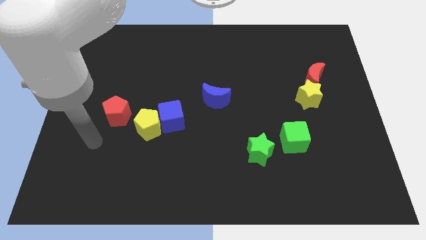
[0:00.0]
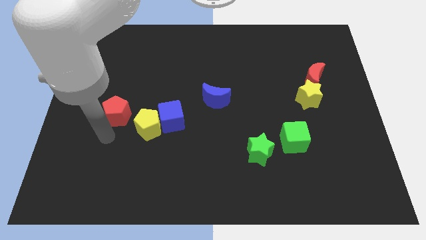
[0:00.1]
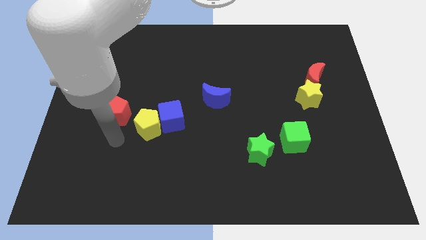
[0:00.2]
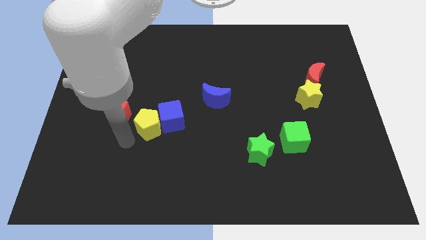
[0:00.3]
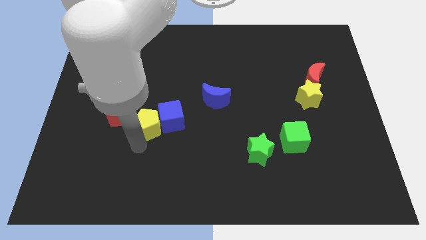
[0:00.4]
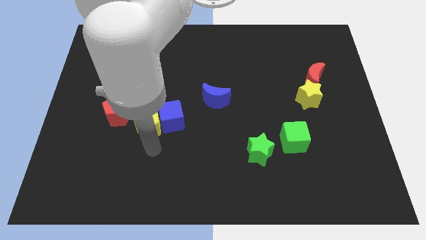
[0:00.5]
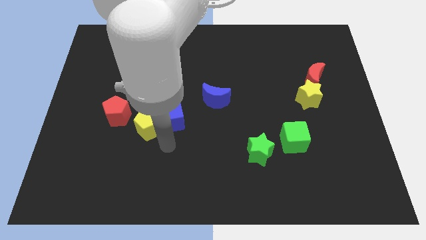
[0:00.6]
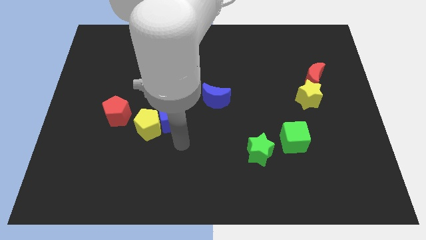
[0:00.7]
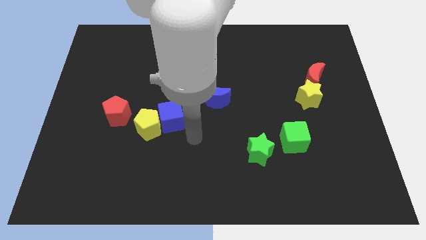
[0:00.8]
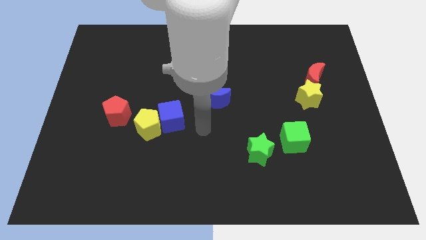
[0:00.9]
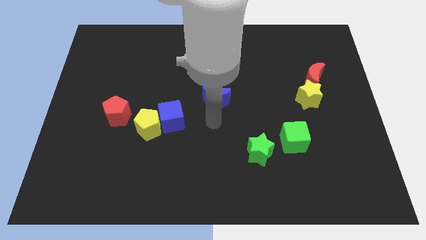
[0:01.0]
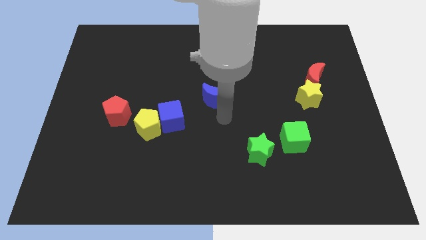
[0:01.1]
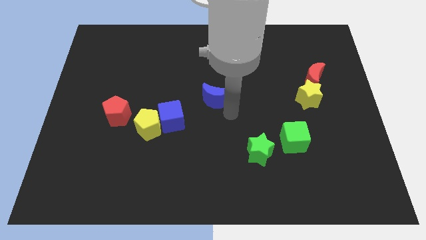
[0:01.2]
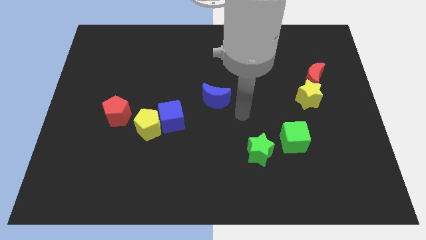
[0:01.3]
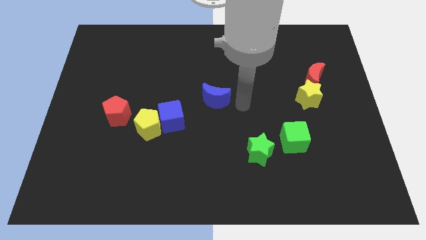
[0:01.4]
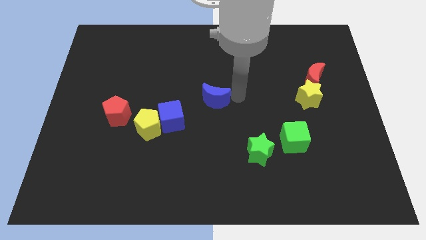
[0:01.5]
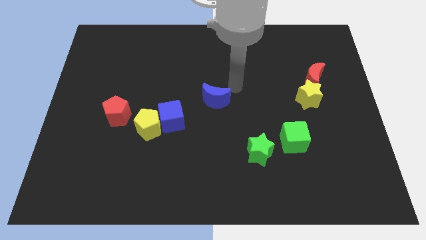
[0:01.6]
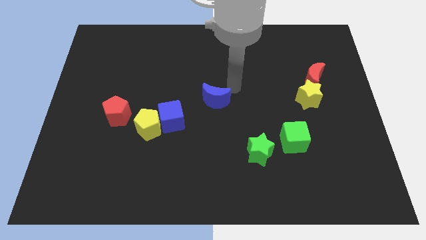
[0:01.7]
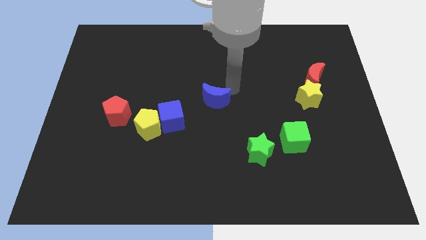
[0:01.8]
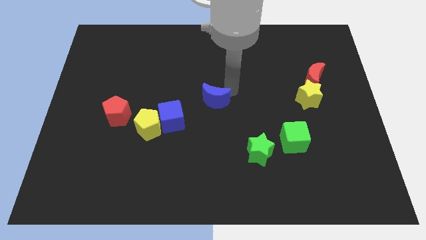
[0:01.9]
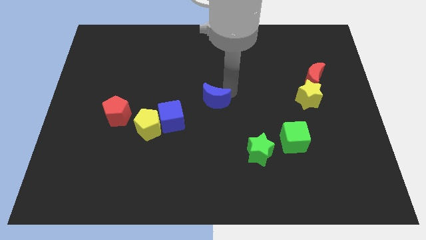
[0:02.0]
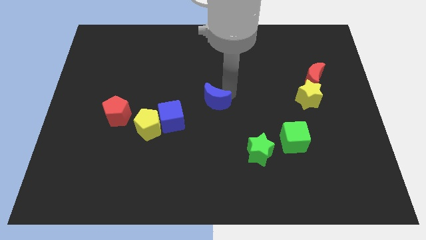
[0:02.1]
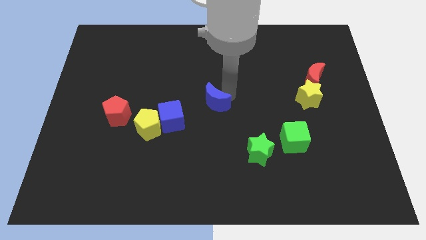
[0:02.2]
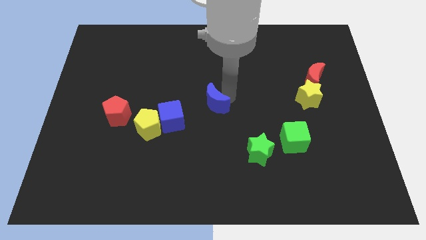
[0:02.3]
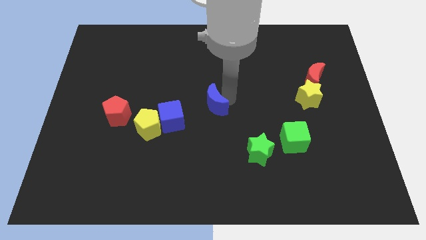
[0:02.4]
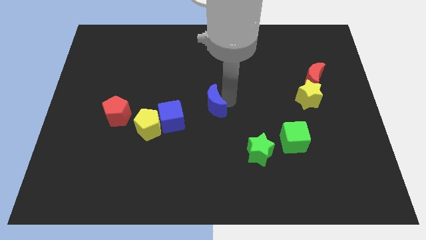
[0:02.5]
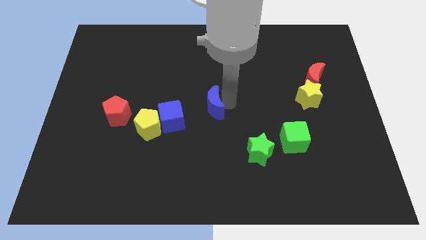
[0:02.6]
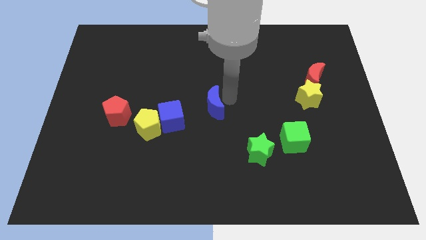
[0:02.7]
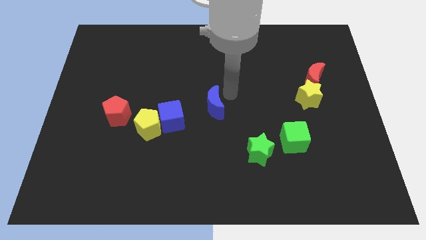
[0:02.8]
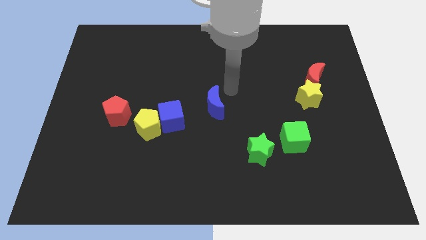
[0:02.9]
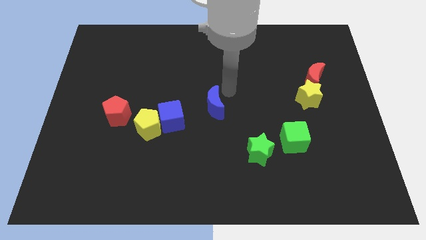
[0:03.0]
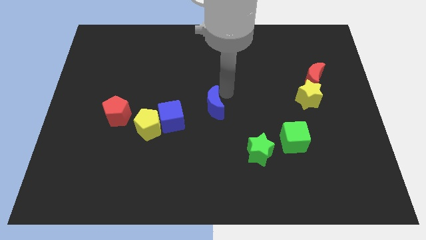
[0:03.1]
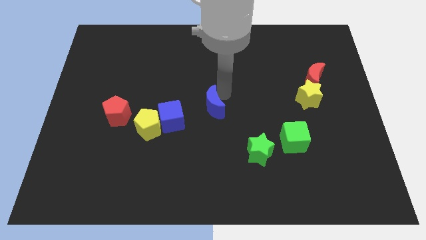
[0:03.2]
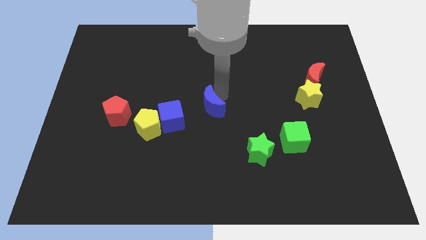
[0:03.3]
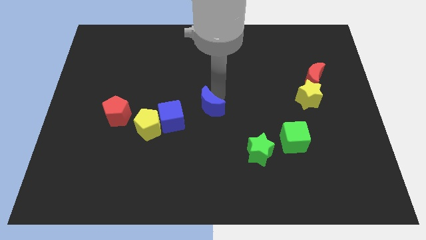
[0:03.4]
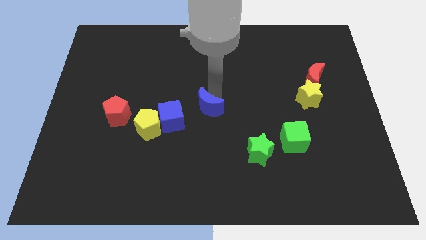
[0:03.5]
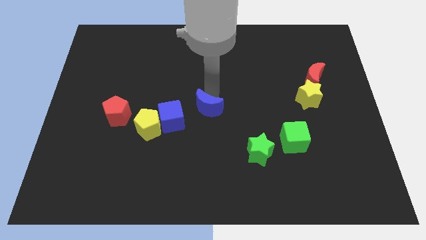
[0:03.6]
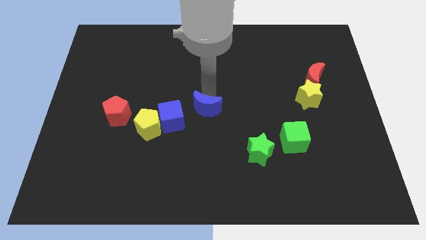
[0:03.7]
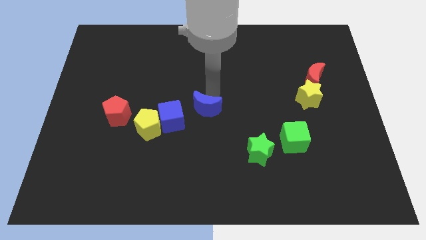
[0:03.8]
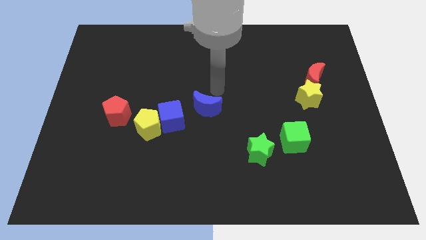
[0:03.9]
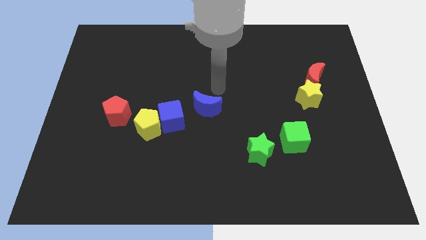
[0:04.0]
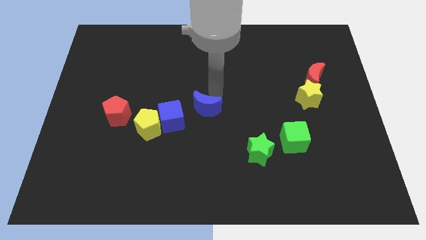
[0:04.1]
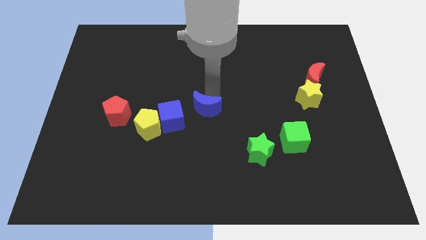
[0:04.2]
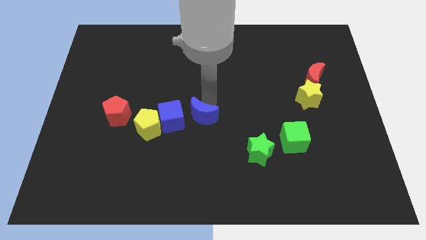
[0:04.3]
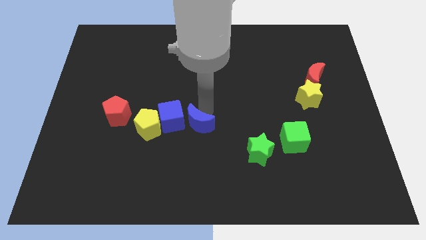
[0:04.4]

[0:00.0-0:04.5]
push the blue moon downwards and then to the left a little bit

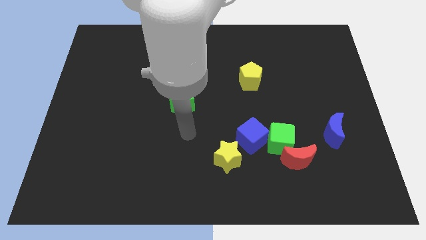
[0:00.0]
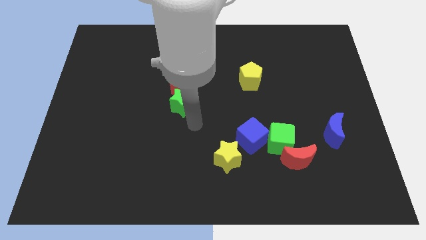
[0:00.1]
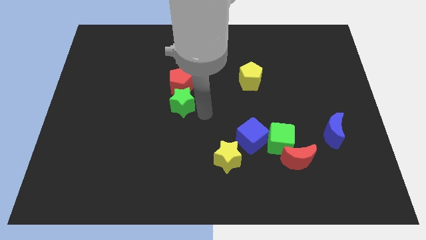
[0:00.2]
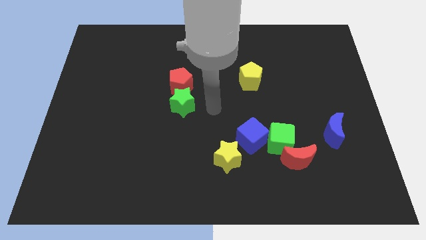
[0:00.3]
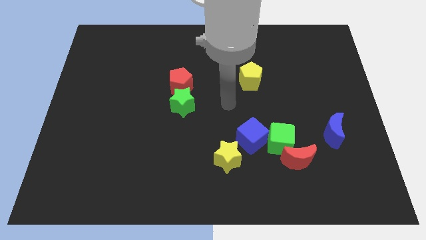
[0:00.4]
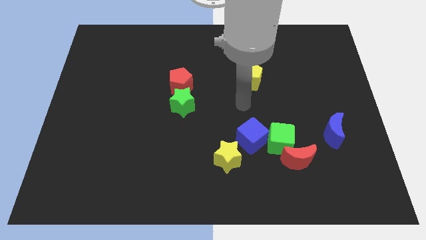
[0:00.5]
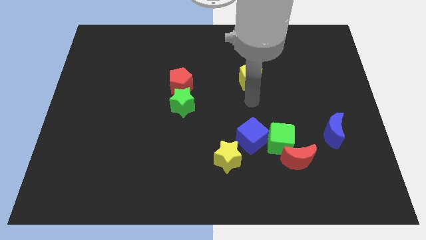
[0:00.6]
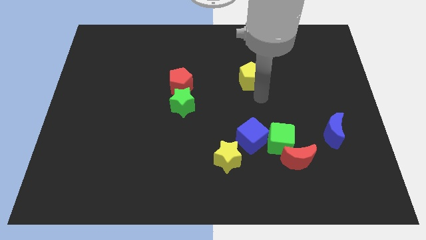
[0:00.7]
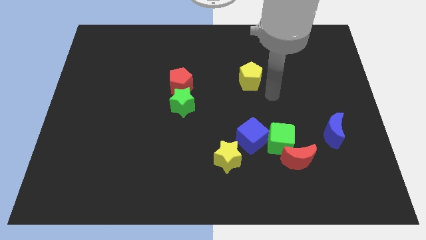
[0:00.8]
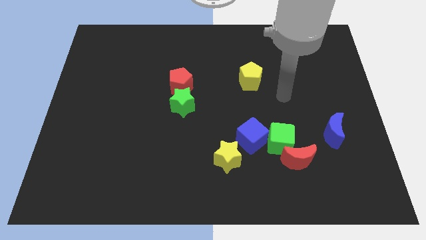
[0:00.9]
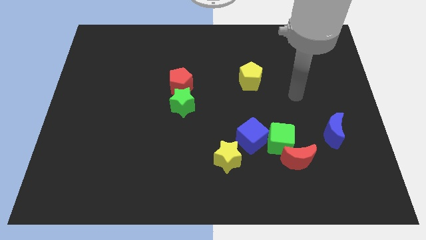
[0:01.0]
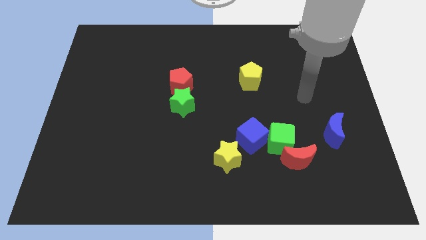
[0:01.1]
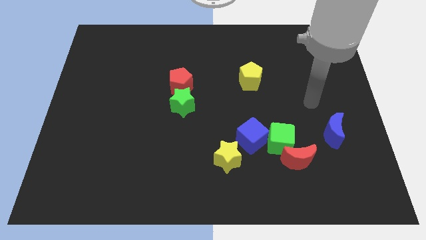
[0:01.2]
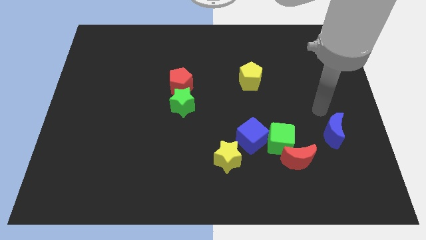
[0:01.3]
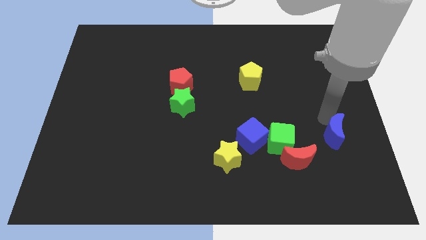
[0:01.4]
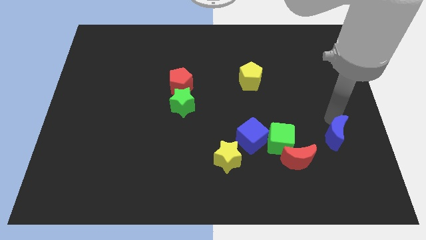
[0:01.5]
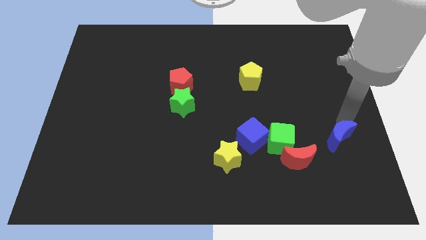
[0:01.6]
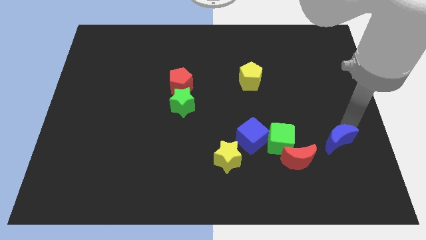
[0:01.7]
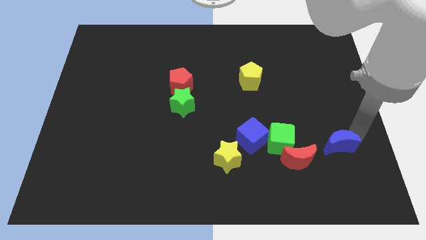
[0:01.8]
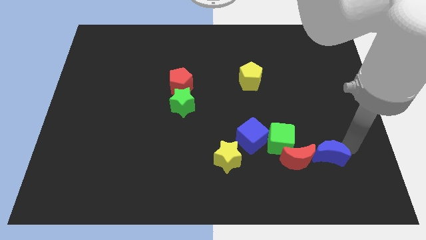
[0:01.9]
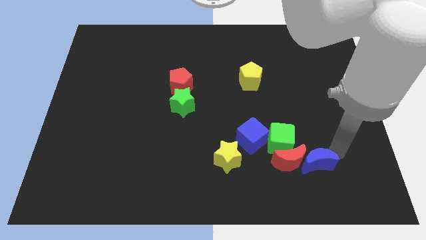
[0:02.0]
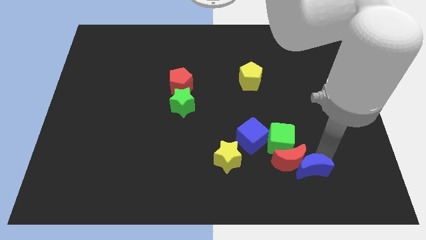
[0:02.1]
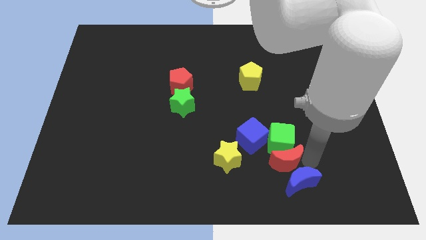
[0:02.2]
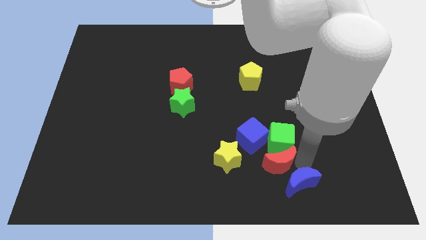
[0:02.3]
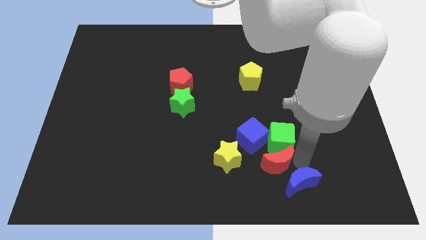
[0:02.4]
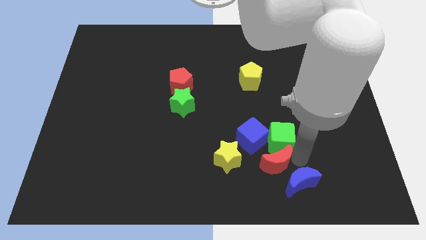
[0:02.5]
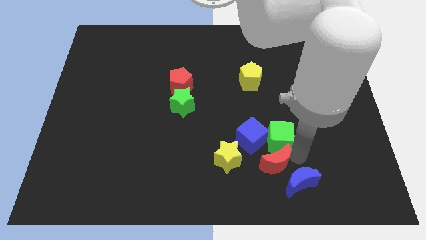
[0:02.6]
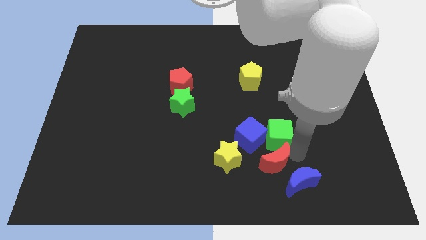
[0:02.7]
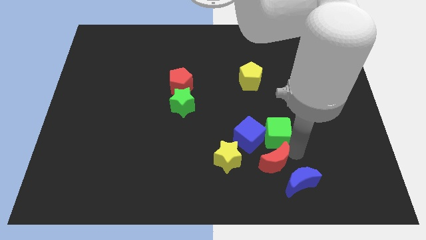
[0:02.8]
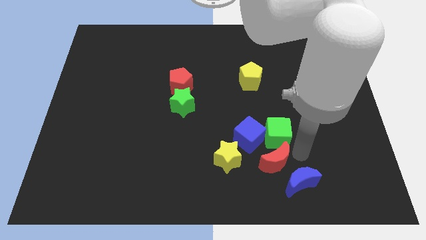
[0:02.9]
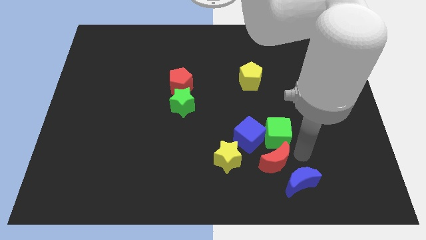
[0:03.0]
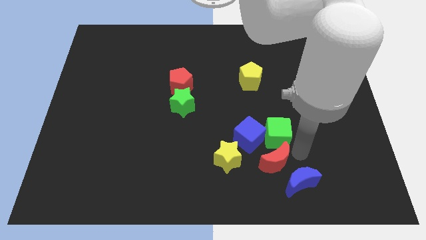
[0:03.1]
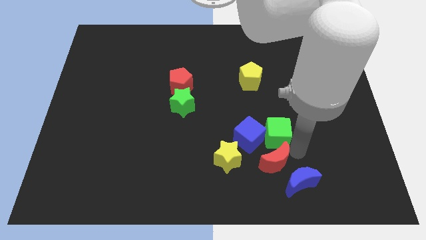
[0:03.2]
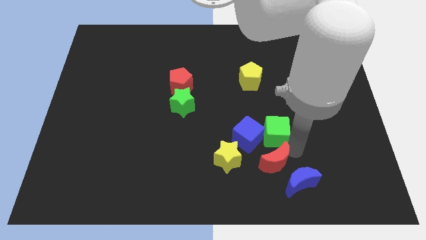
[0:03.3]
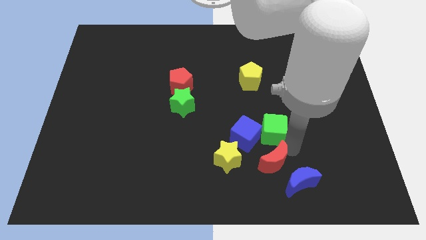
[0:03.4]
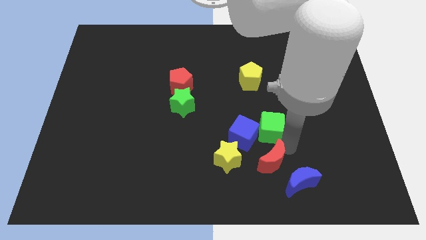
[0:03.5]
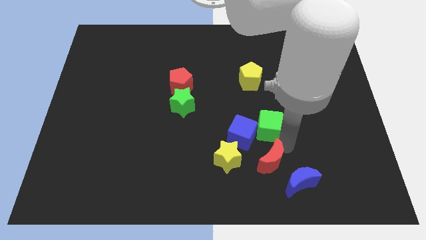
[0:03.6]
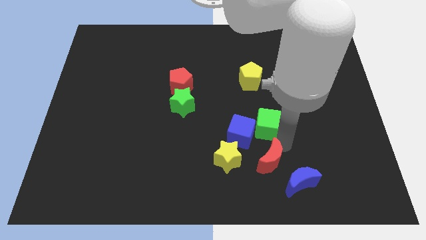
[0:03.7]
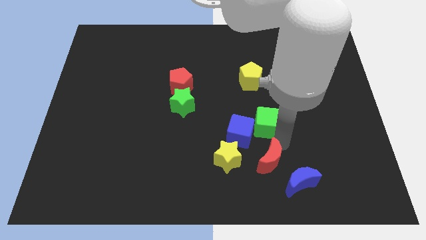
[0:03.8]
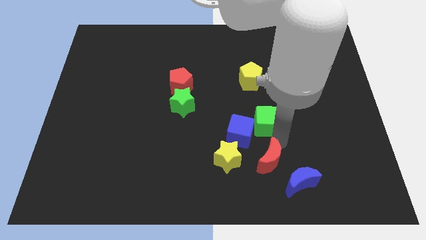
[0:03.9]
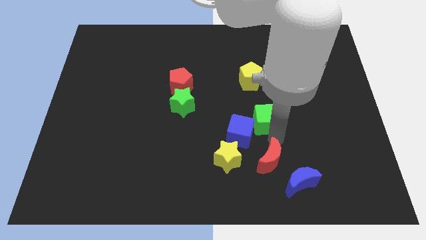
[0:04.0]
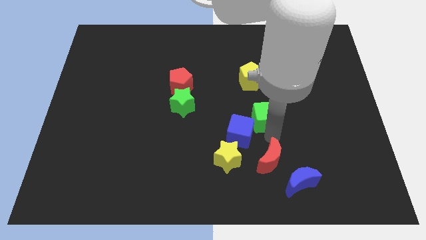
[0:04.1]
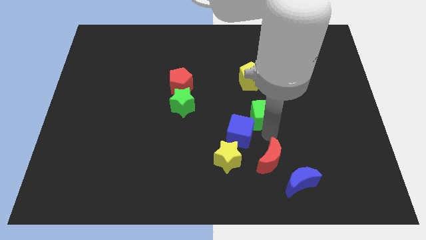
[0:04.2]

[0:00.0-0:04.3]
slightly push the green cube upwards and then to the left
